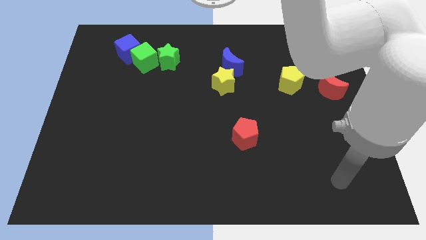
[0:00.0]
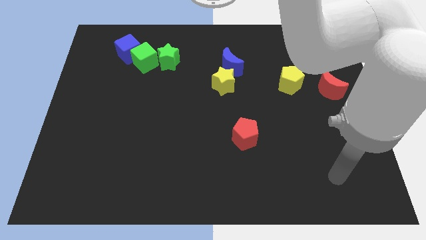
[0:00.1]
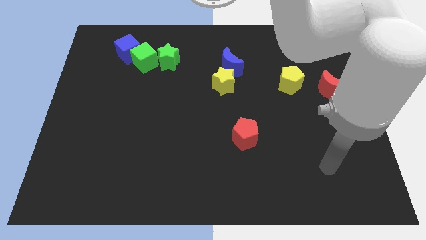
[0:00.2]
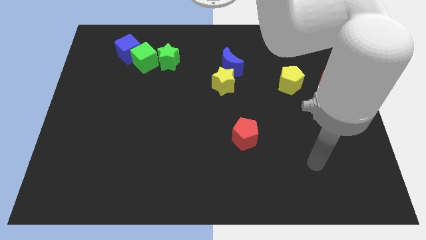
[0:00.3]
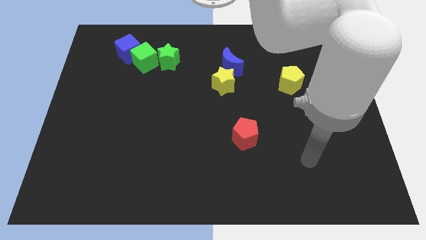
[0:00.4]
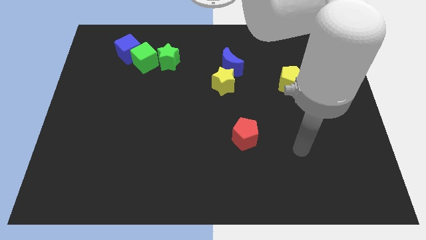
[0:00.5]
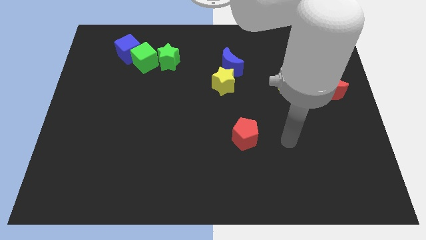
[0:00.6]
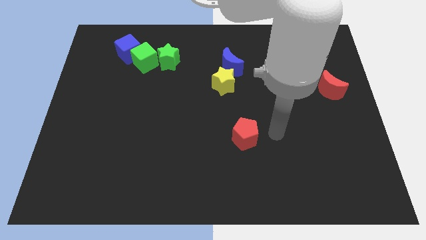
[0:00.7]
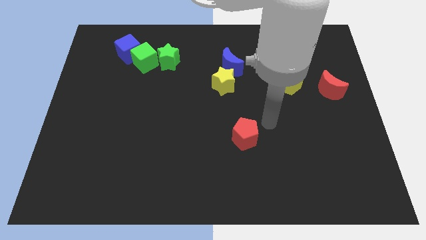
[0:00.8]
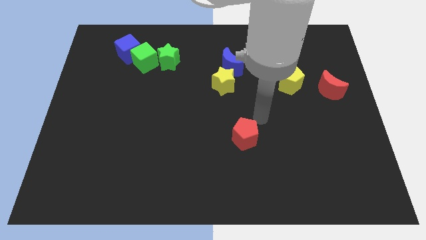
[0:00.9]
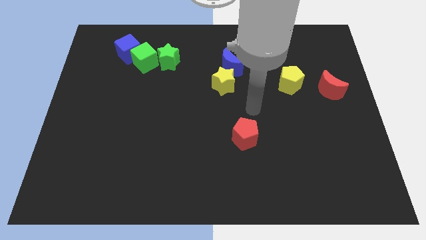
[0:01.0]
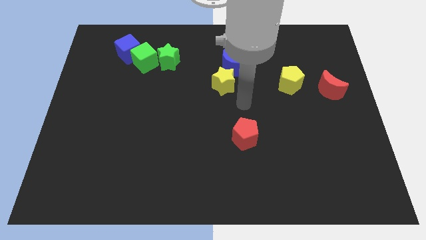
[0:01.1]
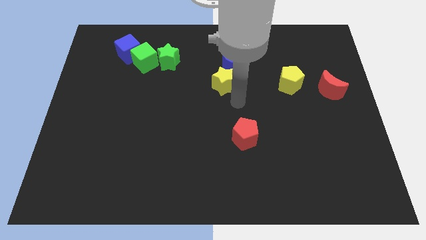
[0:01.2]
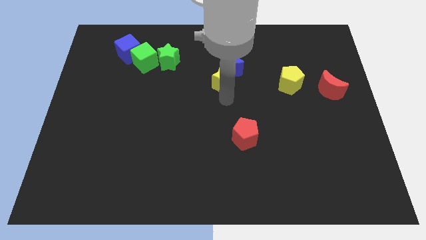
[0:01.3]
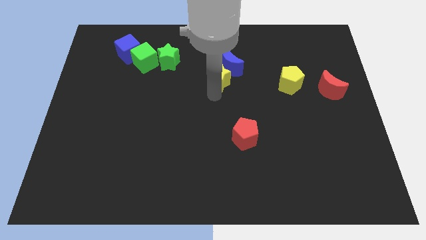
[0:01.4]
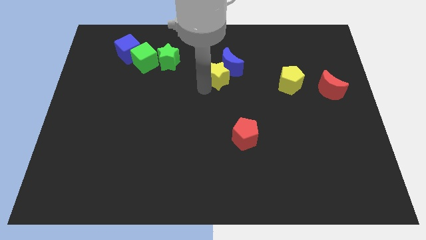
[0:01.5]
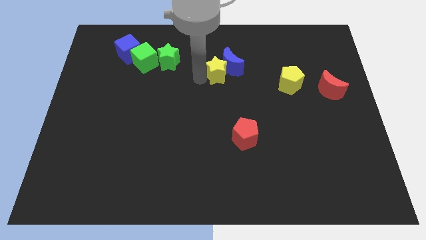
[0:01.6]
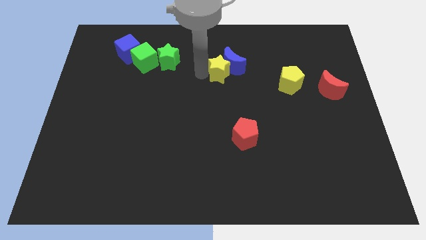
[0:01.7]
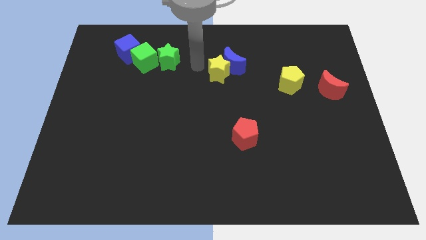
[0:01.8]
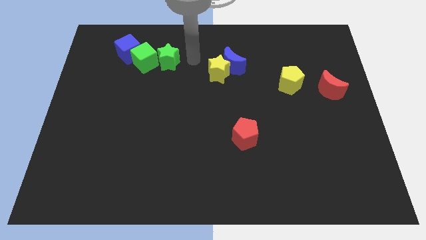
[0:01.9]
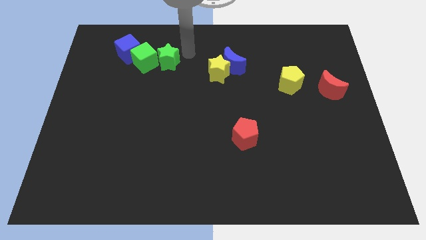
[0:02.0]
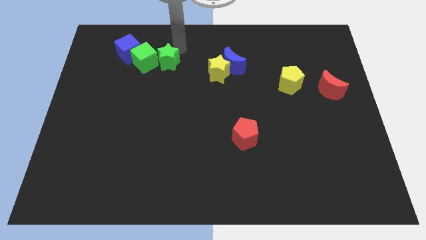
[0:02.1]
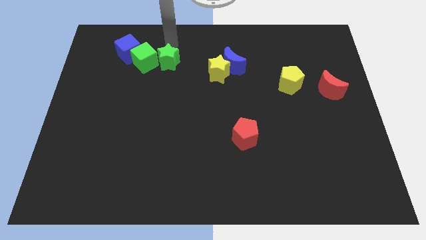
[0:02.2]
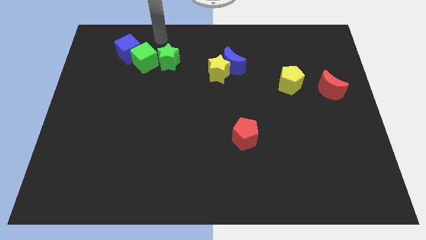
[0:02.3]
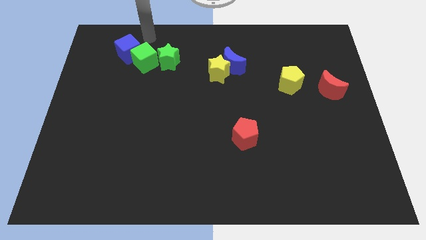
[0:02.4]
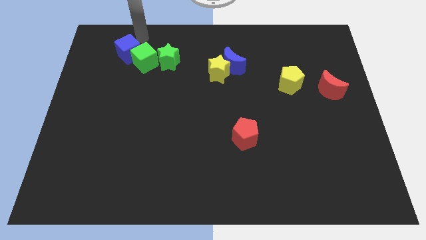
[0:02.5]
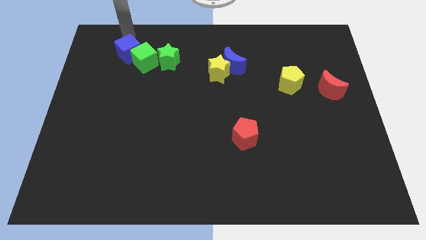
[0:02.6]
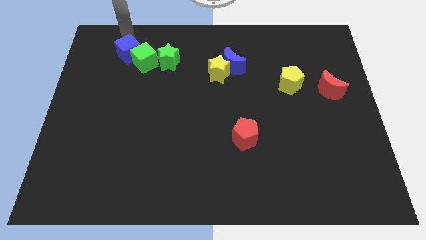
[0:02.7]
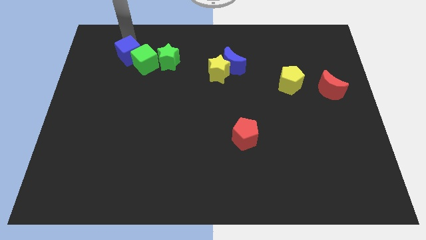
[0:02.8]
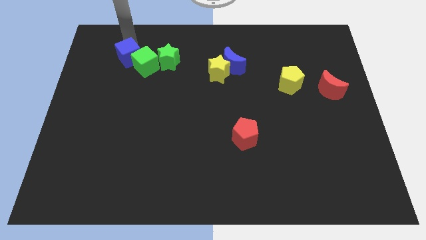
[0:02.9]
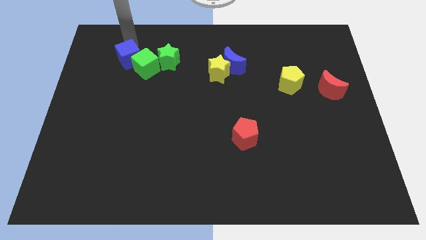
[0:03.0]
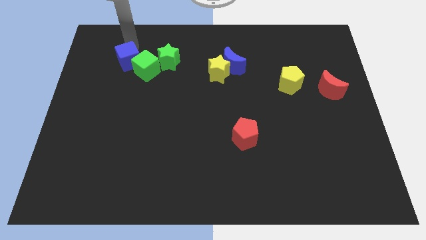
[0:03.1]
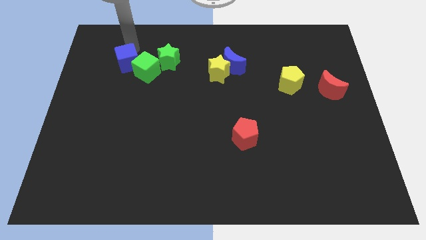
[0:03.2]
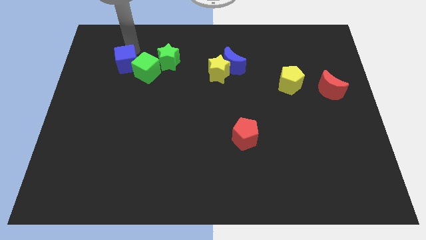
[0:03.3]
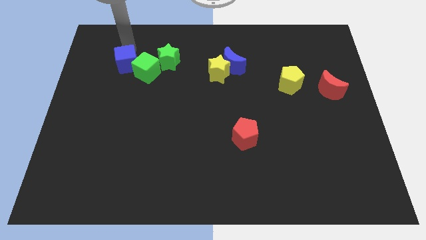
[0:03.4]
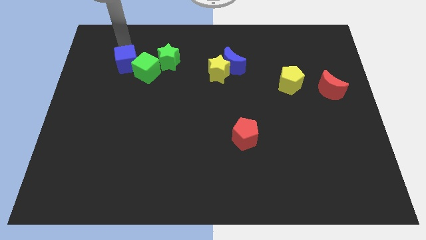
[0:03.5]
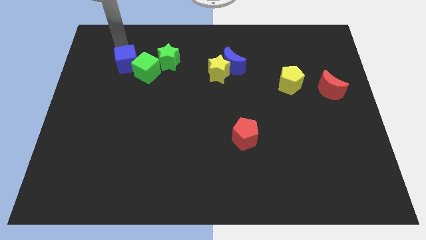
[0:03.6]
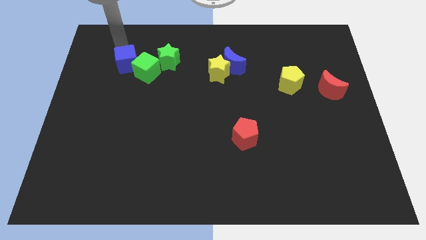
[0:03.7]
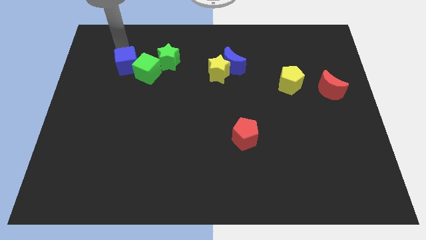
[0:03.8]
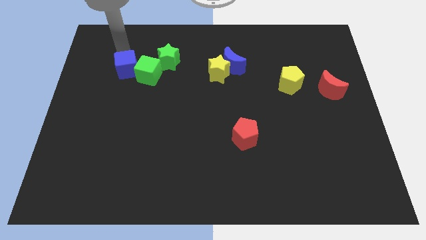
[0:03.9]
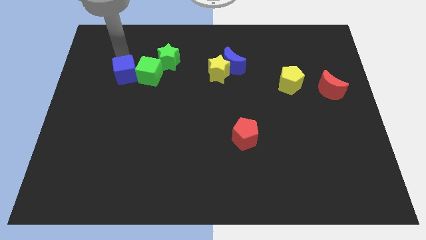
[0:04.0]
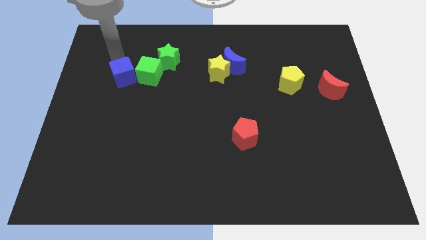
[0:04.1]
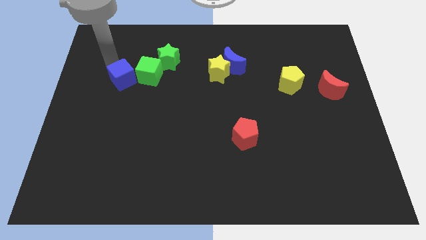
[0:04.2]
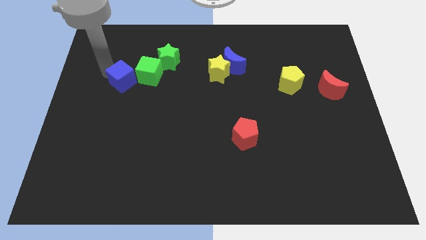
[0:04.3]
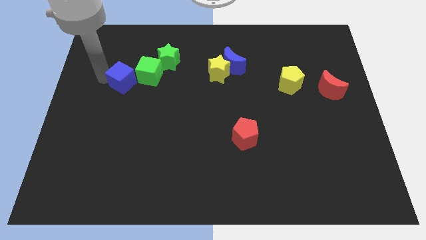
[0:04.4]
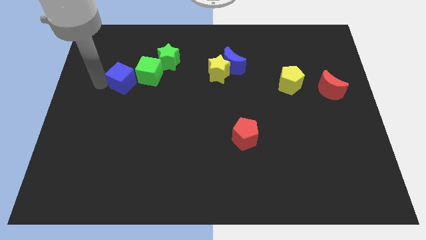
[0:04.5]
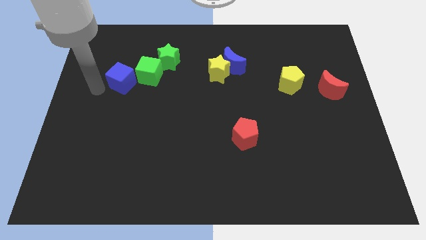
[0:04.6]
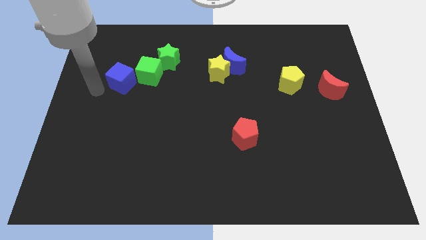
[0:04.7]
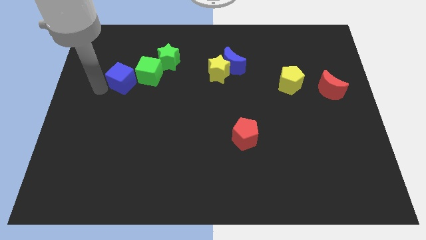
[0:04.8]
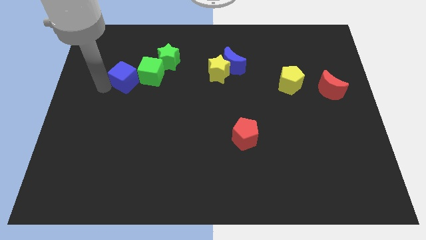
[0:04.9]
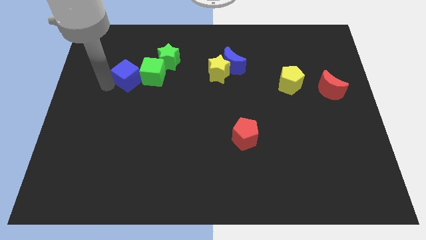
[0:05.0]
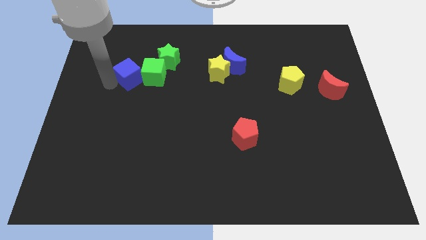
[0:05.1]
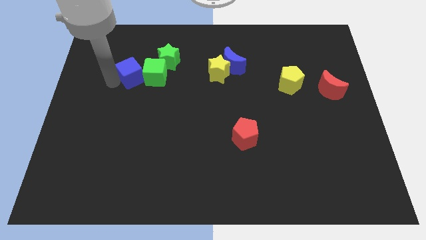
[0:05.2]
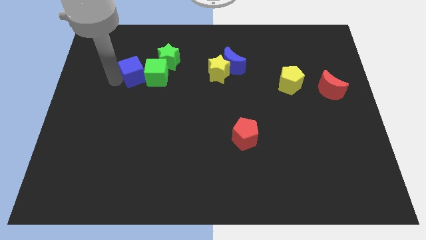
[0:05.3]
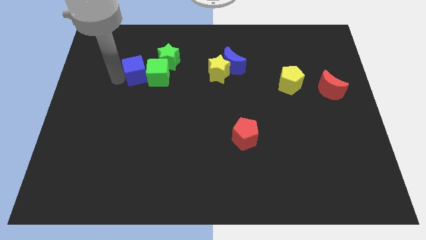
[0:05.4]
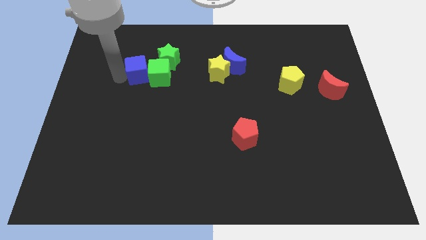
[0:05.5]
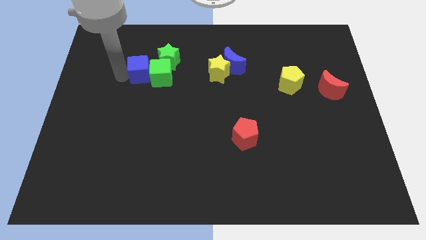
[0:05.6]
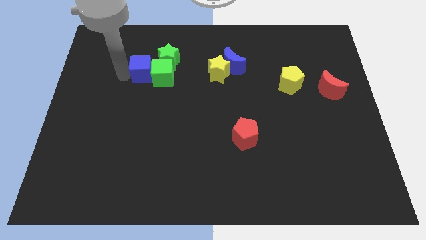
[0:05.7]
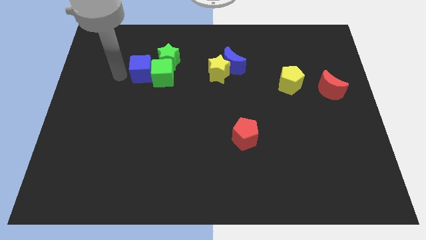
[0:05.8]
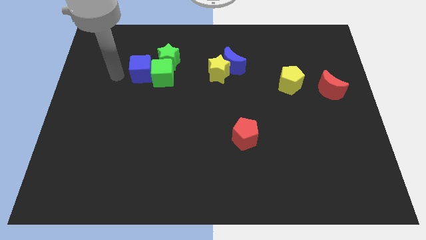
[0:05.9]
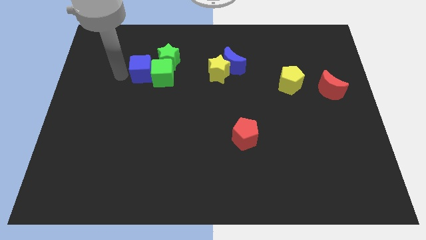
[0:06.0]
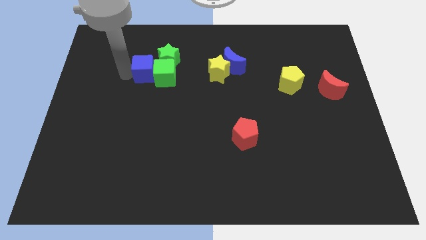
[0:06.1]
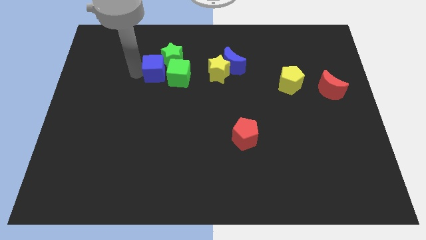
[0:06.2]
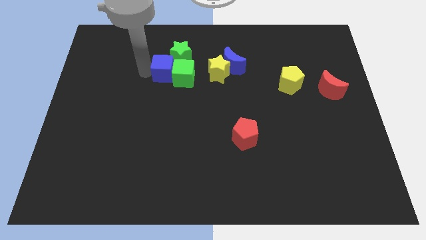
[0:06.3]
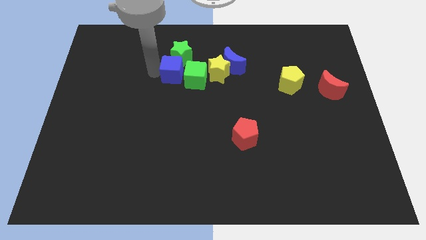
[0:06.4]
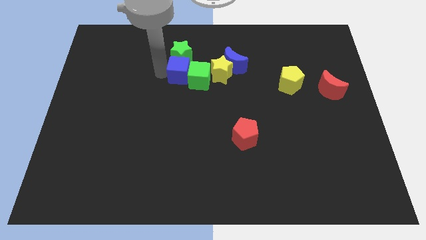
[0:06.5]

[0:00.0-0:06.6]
slide the blue cube to the bottom right of the green star

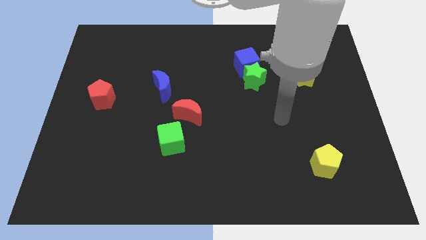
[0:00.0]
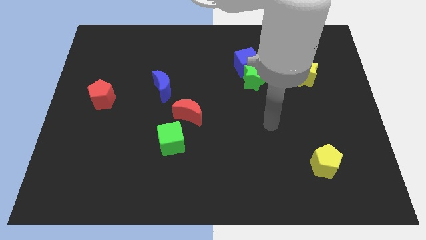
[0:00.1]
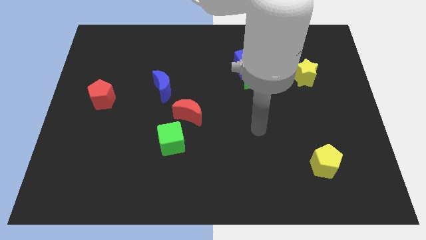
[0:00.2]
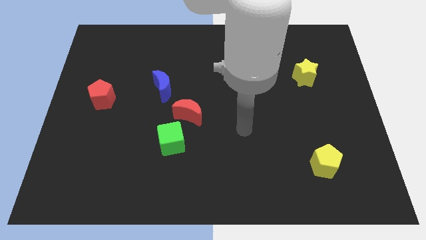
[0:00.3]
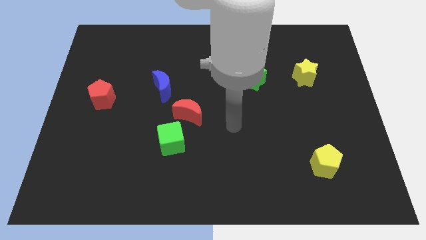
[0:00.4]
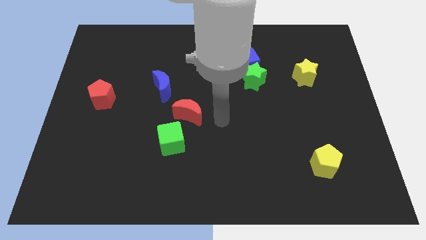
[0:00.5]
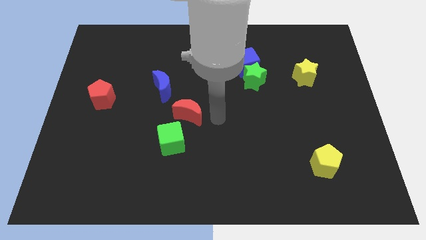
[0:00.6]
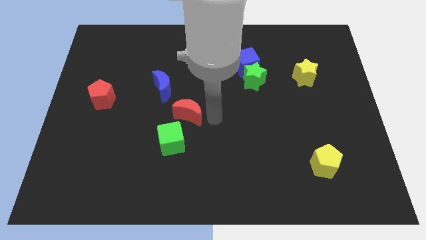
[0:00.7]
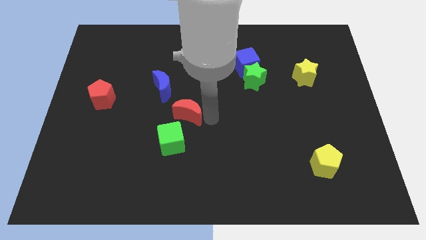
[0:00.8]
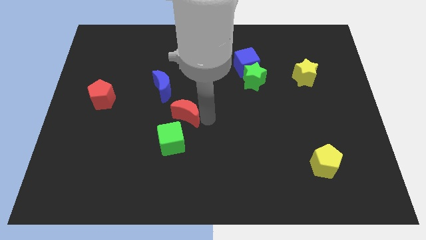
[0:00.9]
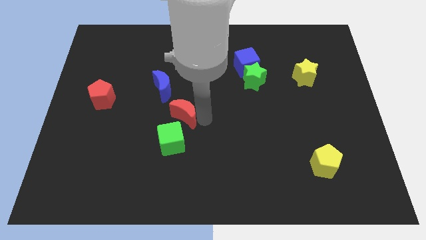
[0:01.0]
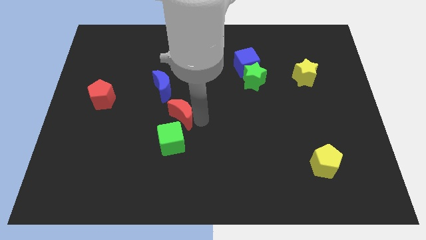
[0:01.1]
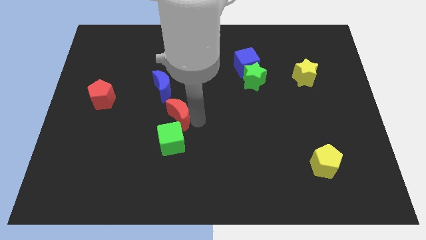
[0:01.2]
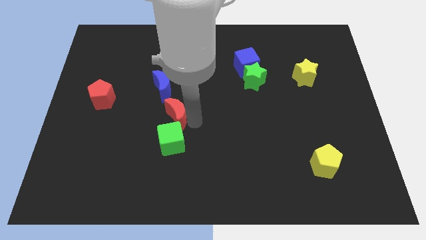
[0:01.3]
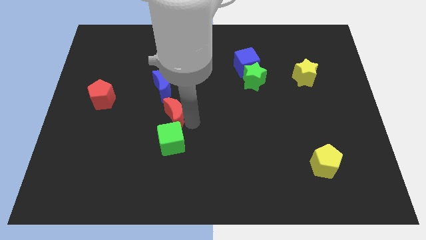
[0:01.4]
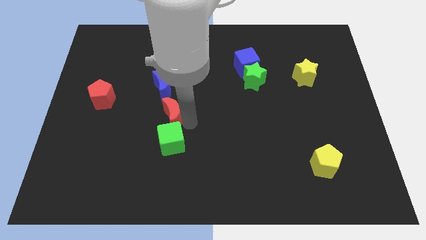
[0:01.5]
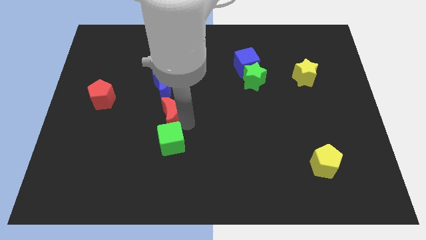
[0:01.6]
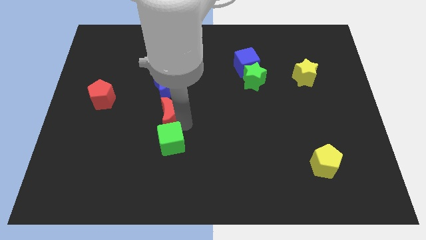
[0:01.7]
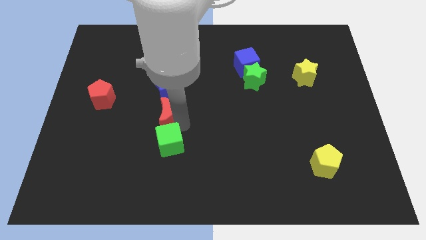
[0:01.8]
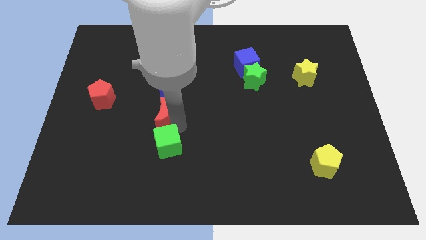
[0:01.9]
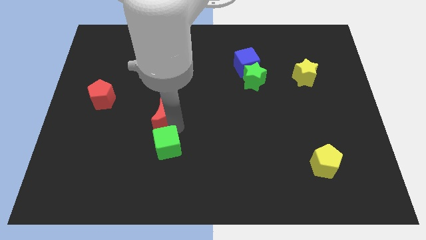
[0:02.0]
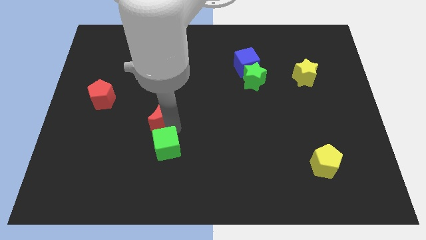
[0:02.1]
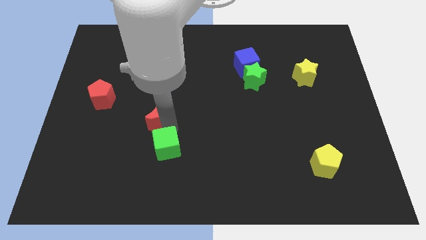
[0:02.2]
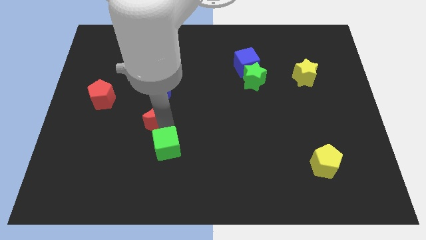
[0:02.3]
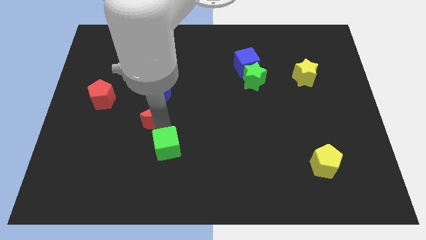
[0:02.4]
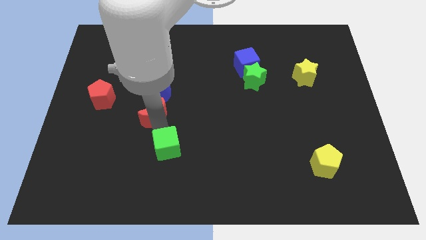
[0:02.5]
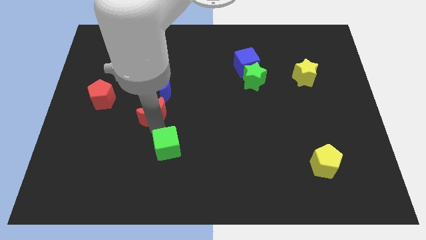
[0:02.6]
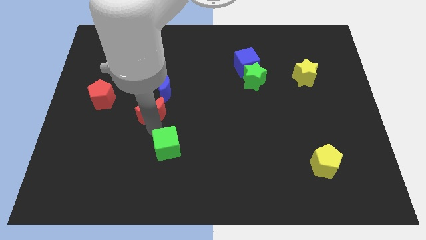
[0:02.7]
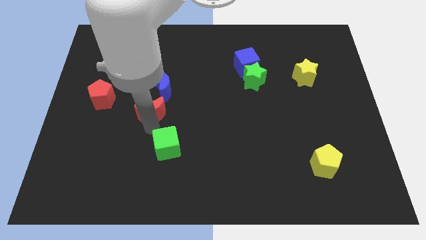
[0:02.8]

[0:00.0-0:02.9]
slide the red moon just right of the red pentagon
